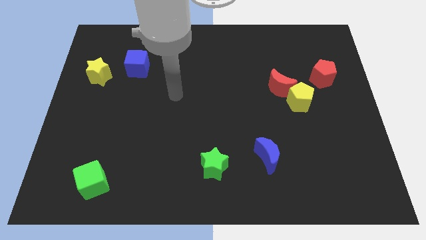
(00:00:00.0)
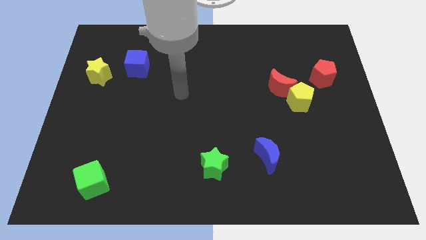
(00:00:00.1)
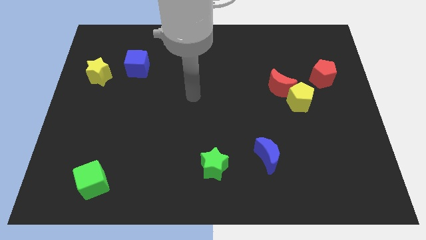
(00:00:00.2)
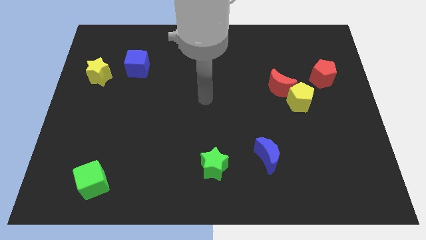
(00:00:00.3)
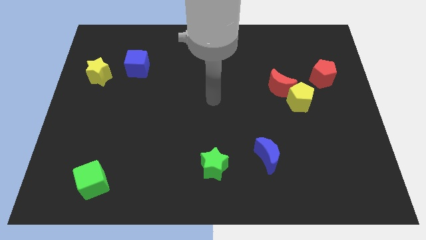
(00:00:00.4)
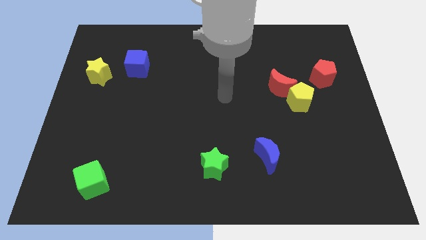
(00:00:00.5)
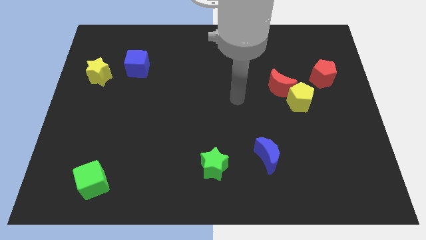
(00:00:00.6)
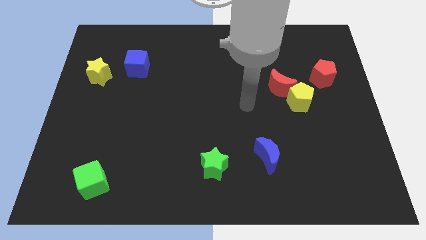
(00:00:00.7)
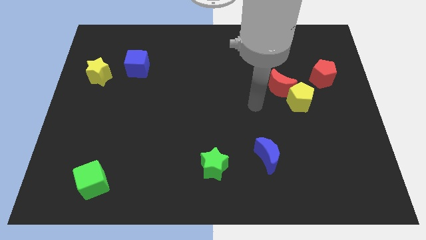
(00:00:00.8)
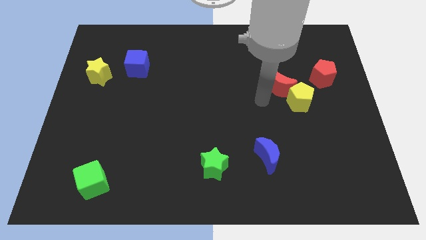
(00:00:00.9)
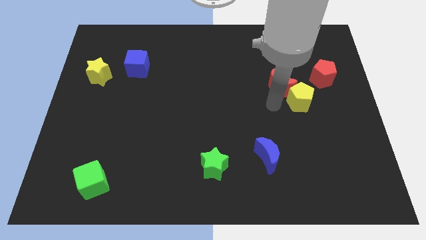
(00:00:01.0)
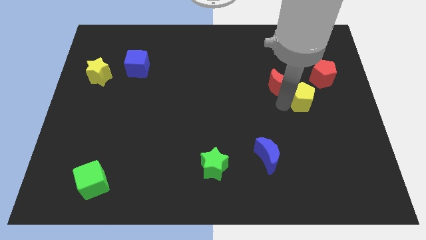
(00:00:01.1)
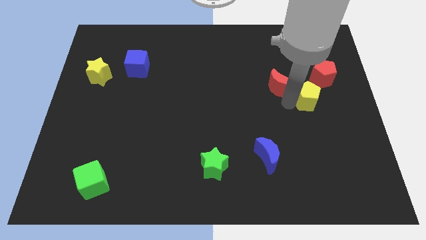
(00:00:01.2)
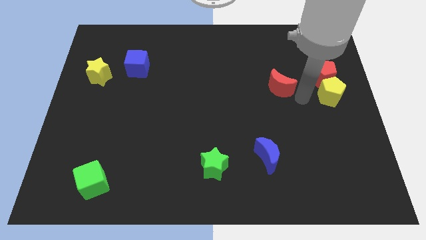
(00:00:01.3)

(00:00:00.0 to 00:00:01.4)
separate the red moon from the yellow pentagon

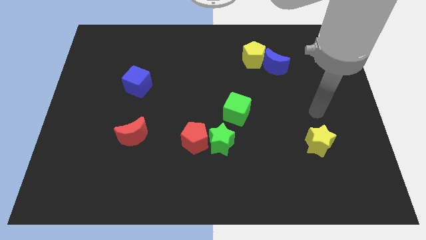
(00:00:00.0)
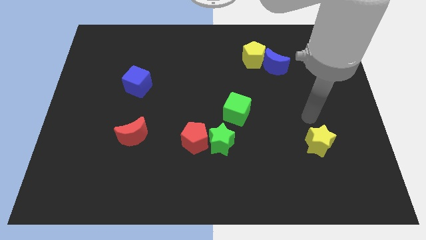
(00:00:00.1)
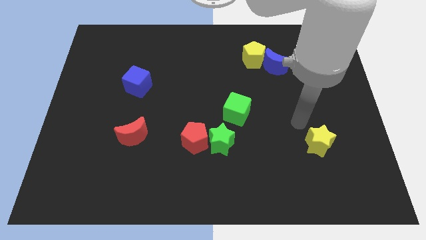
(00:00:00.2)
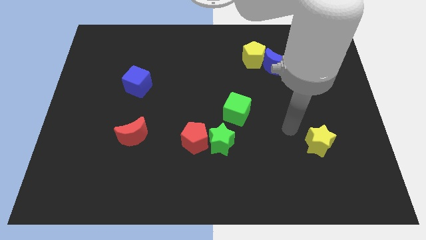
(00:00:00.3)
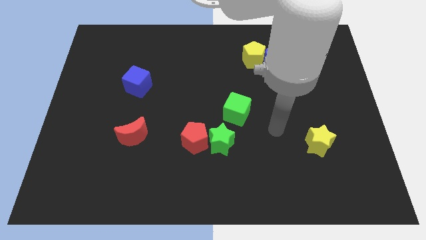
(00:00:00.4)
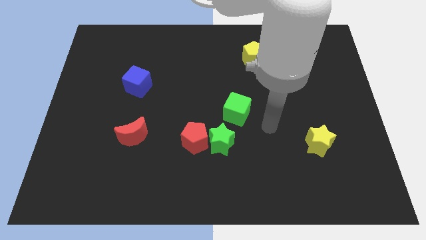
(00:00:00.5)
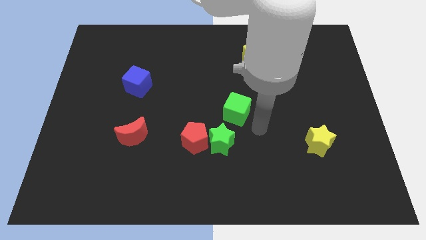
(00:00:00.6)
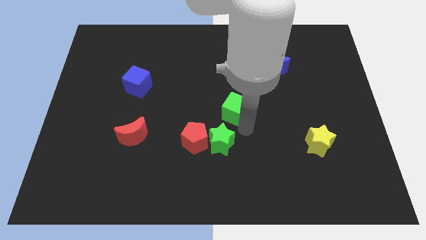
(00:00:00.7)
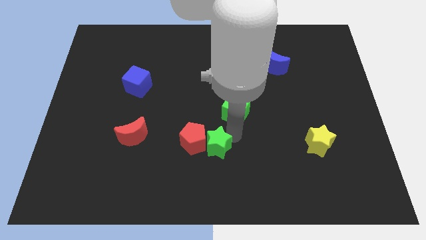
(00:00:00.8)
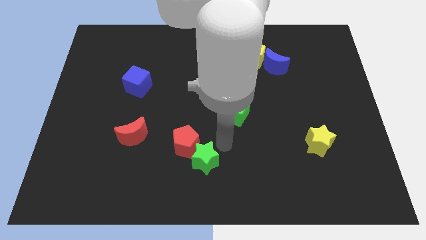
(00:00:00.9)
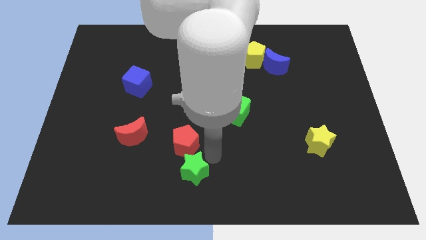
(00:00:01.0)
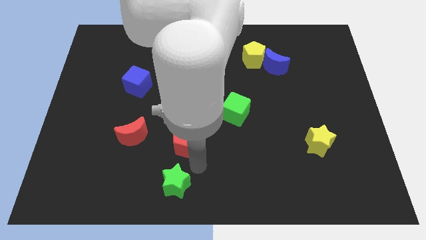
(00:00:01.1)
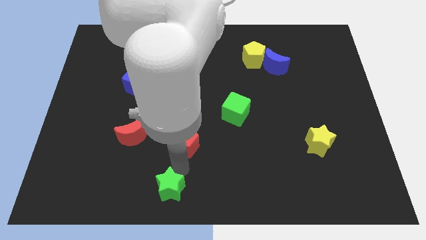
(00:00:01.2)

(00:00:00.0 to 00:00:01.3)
pull the red pentagon apart from the green star

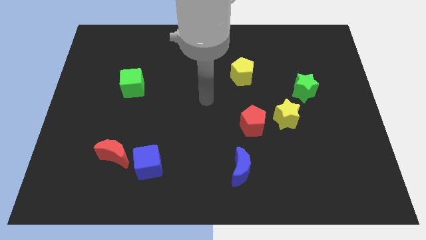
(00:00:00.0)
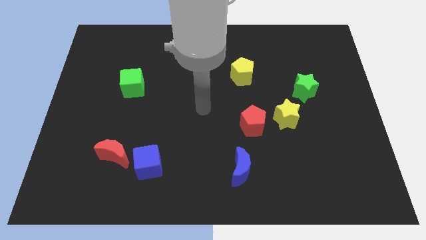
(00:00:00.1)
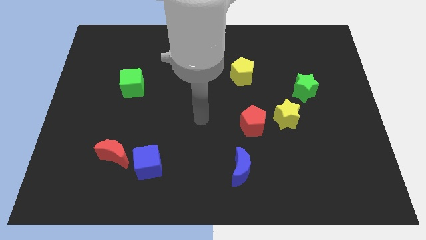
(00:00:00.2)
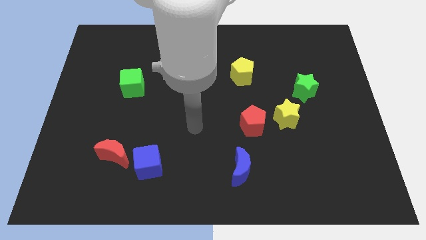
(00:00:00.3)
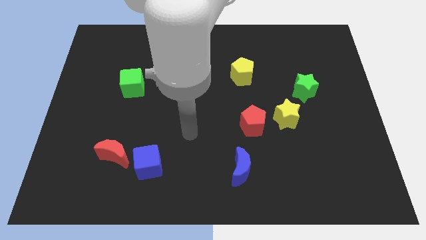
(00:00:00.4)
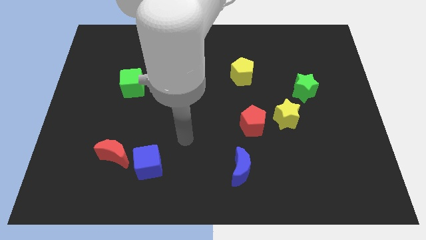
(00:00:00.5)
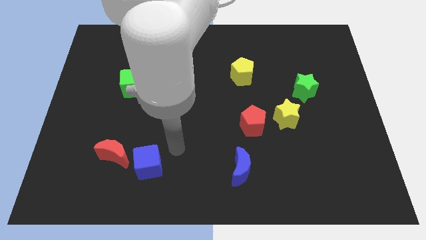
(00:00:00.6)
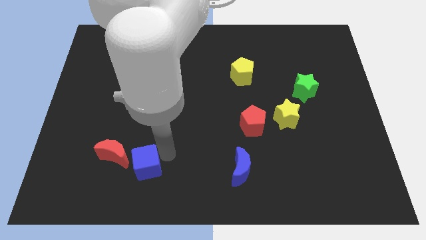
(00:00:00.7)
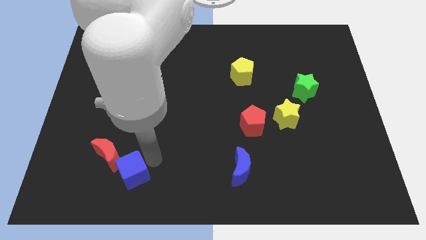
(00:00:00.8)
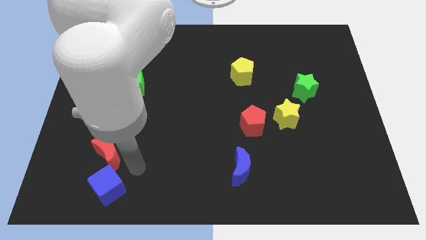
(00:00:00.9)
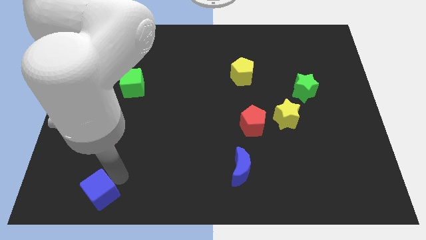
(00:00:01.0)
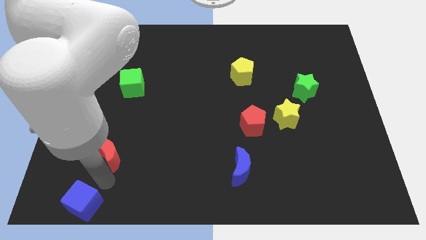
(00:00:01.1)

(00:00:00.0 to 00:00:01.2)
pull the red moon apart from the blue cube

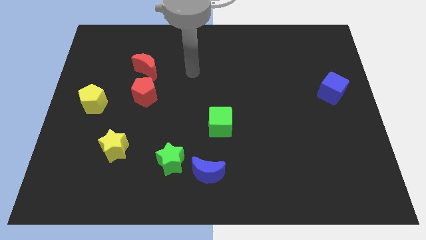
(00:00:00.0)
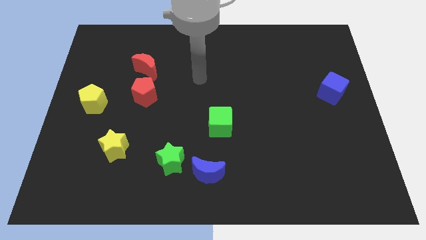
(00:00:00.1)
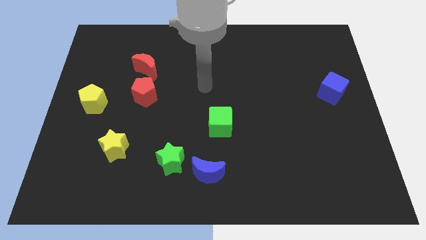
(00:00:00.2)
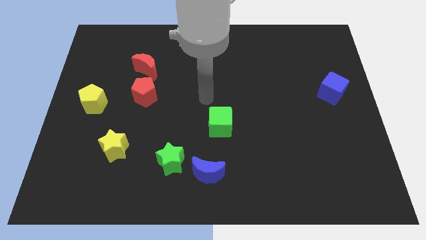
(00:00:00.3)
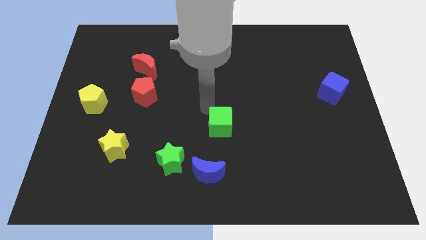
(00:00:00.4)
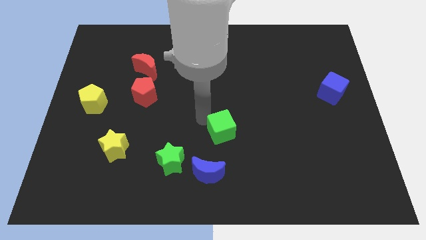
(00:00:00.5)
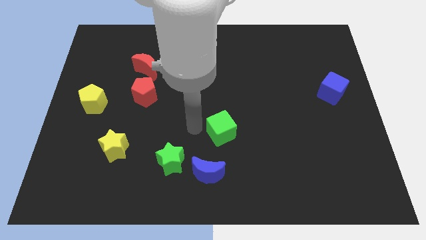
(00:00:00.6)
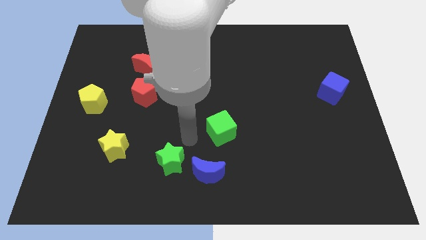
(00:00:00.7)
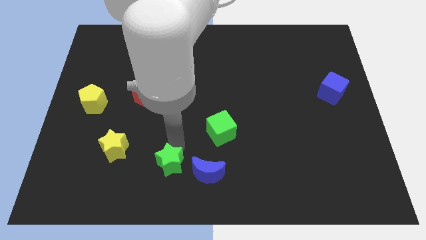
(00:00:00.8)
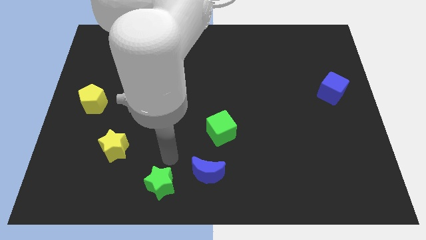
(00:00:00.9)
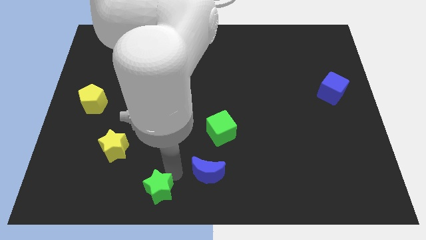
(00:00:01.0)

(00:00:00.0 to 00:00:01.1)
move the blue moon away from the green star

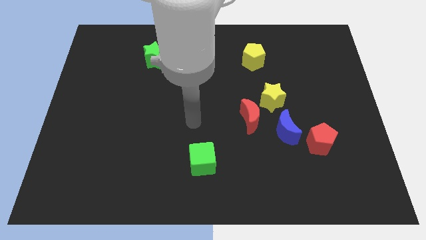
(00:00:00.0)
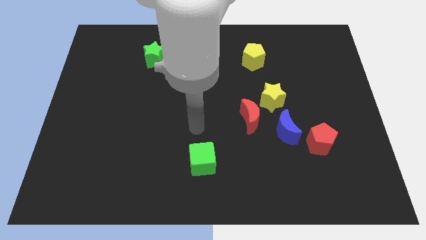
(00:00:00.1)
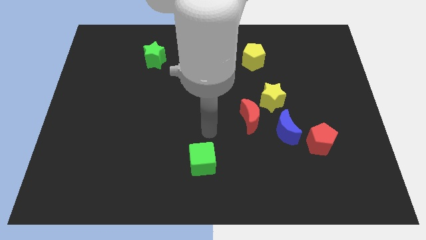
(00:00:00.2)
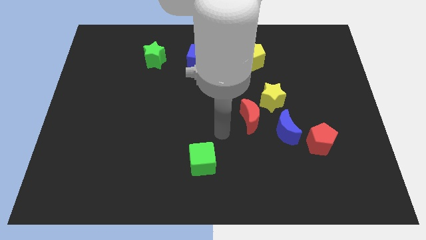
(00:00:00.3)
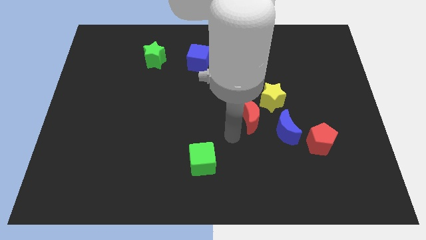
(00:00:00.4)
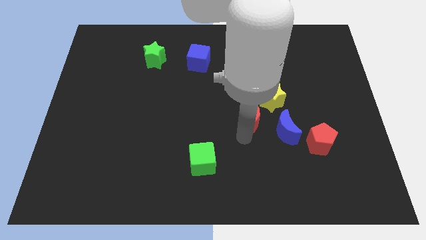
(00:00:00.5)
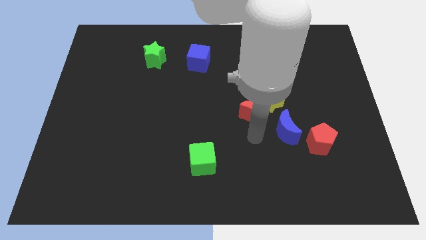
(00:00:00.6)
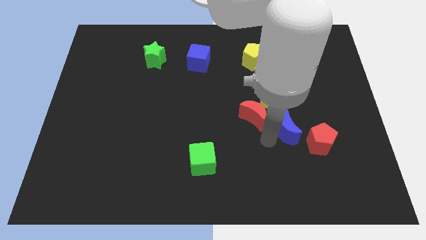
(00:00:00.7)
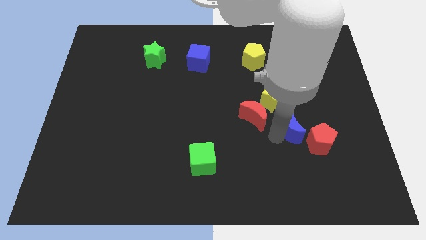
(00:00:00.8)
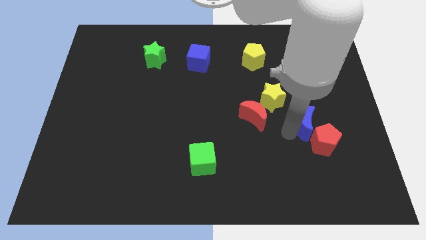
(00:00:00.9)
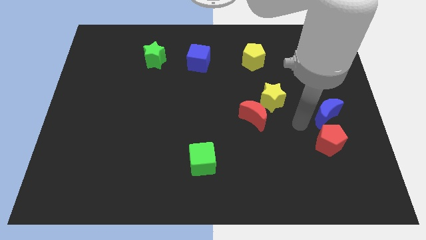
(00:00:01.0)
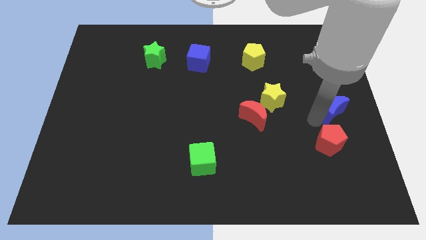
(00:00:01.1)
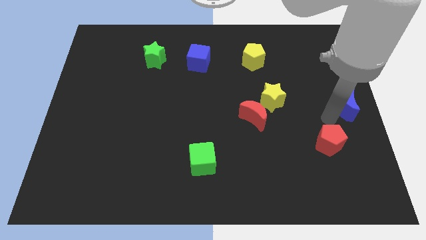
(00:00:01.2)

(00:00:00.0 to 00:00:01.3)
pull the red pentagon apart from the blue moon

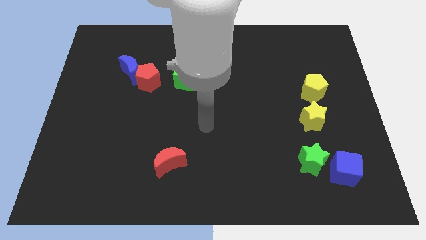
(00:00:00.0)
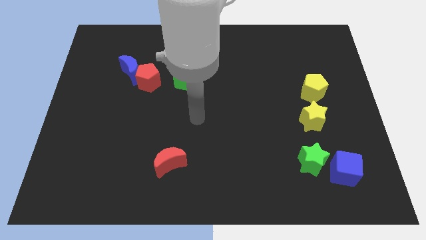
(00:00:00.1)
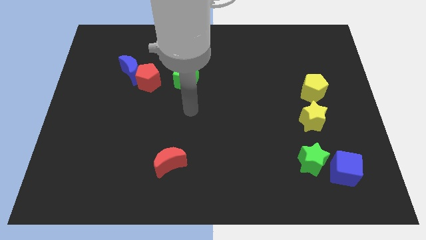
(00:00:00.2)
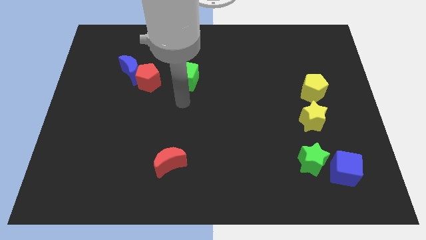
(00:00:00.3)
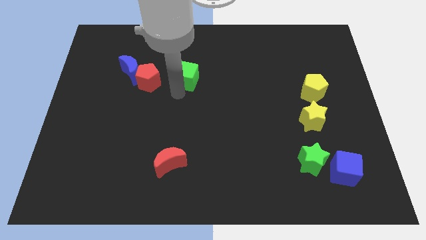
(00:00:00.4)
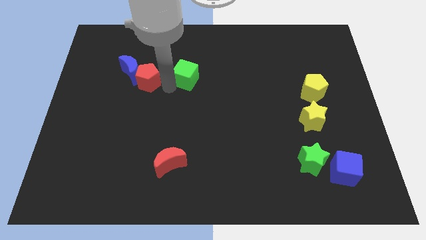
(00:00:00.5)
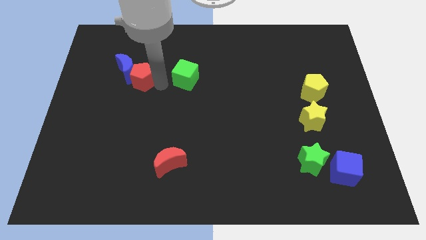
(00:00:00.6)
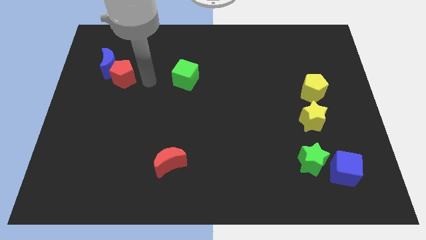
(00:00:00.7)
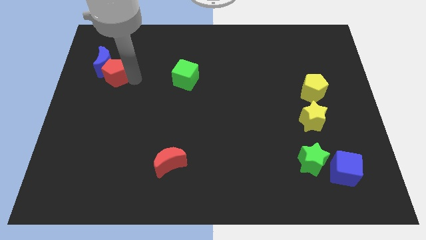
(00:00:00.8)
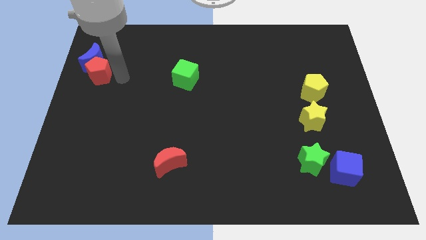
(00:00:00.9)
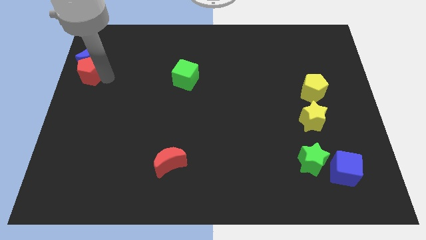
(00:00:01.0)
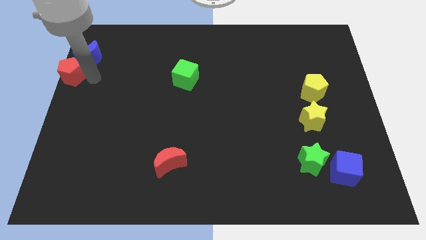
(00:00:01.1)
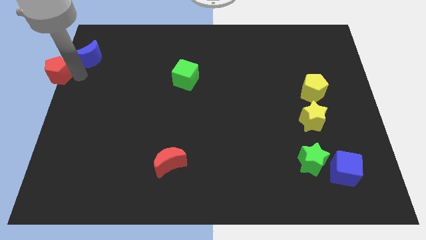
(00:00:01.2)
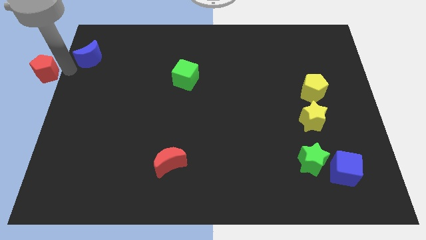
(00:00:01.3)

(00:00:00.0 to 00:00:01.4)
move the blue moon away from the red pentagon

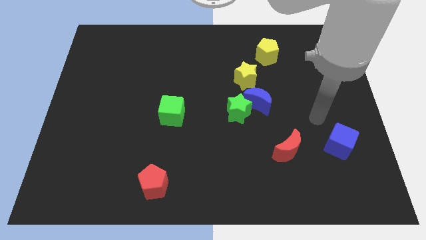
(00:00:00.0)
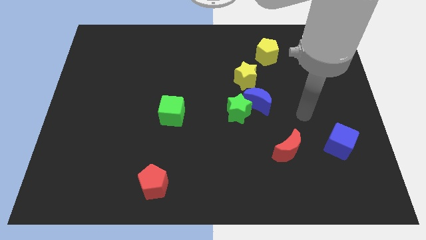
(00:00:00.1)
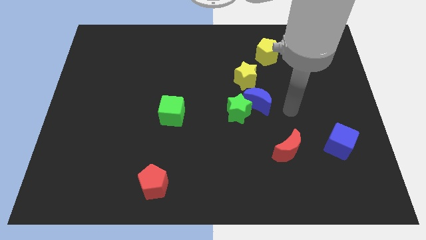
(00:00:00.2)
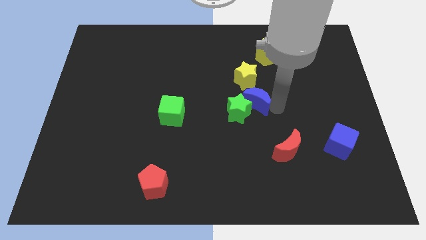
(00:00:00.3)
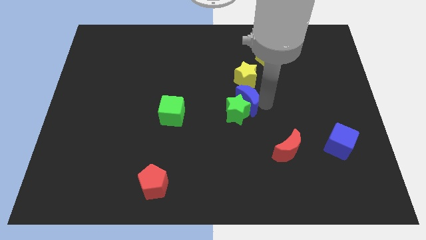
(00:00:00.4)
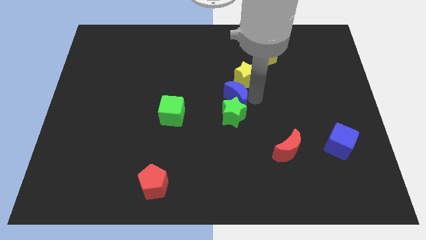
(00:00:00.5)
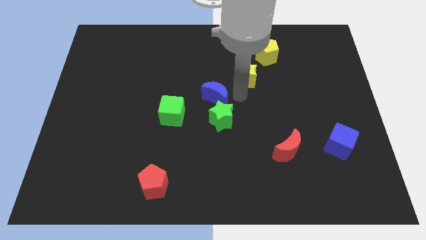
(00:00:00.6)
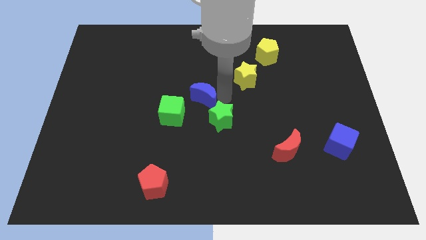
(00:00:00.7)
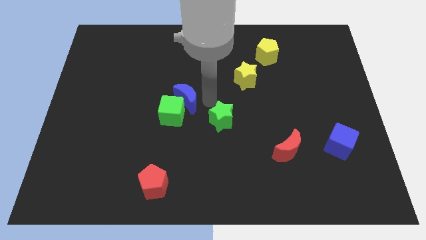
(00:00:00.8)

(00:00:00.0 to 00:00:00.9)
move the green star away from the blue moon

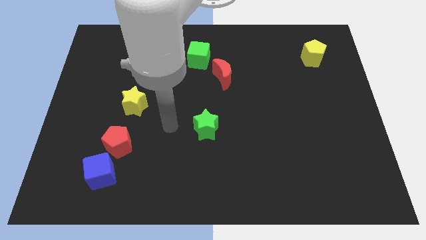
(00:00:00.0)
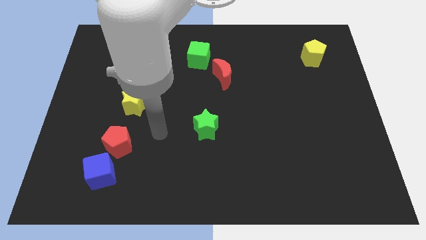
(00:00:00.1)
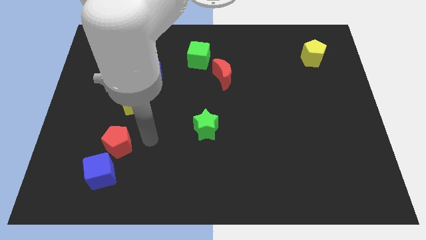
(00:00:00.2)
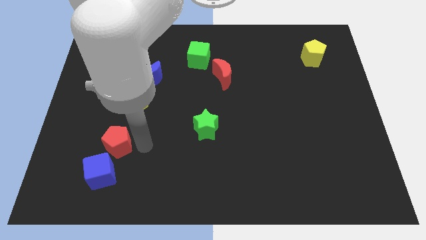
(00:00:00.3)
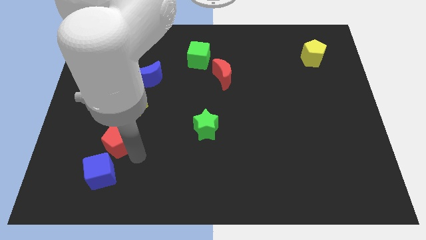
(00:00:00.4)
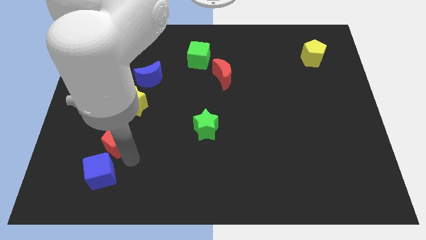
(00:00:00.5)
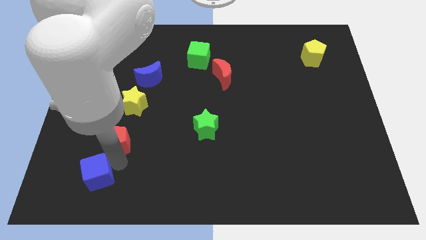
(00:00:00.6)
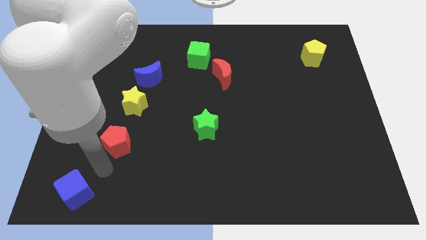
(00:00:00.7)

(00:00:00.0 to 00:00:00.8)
separate the red pentagon from the blue cube
